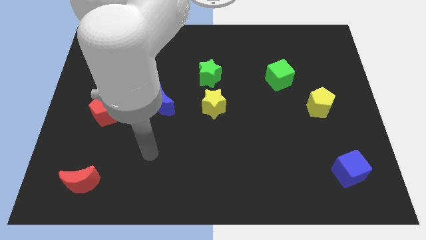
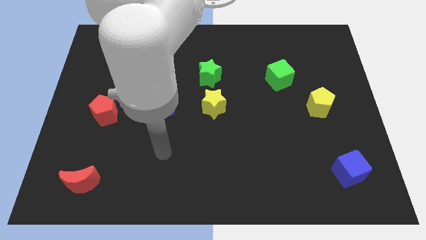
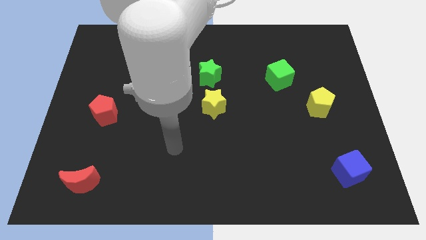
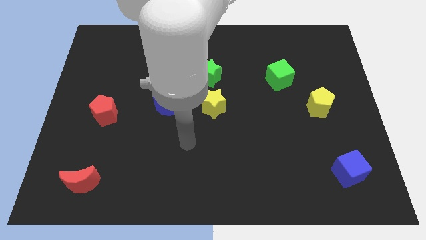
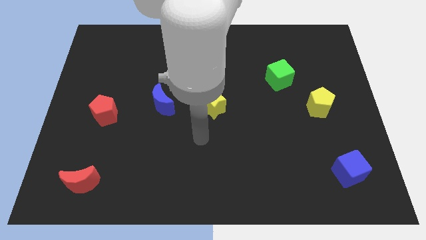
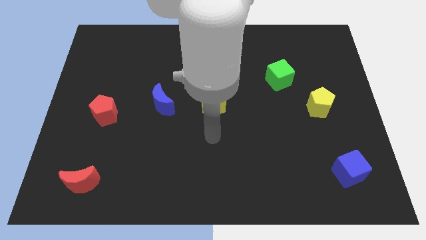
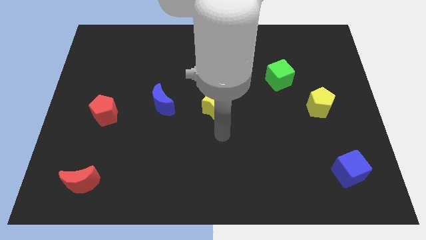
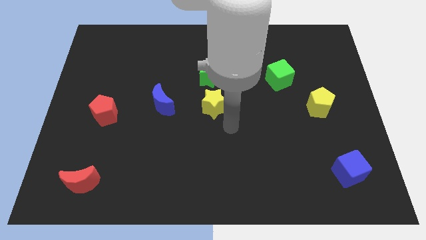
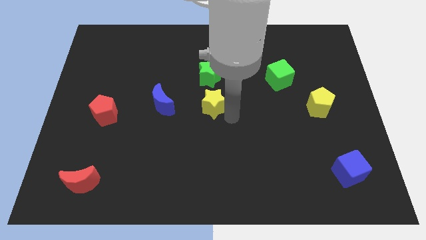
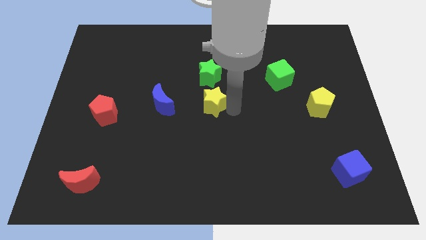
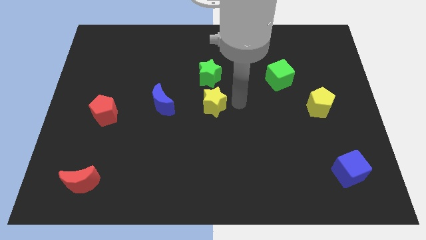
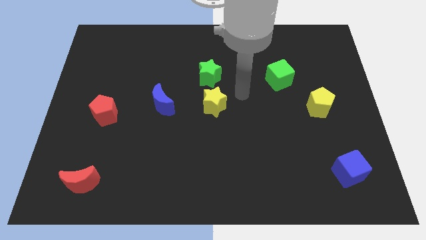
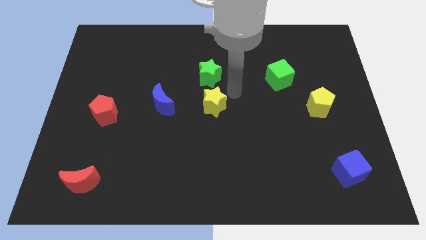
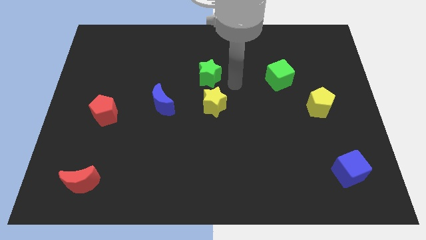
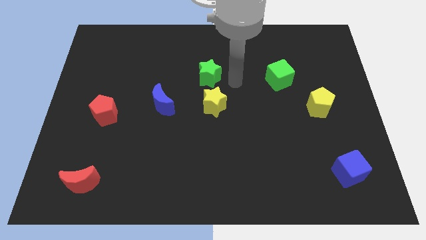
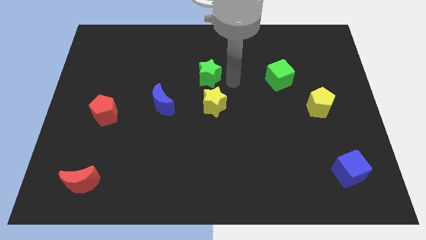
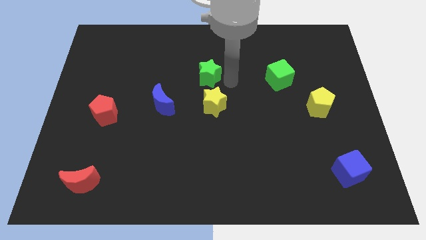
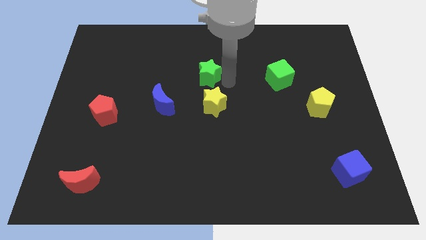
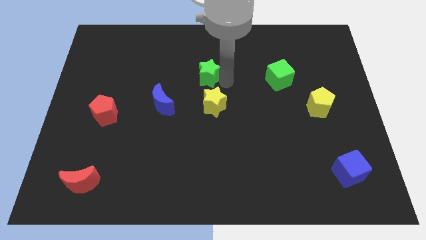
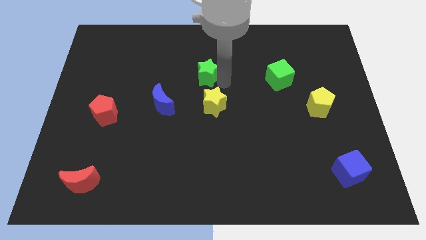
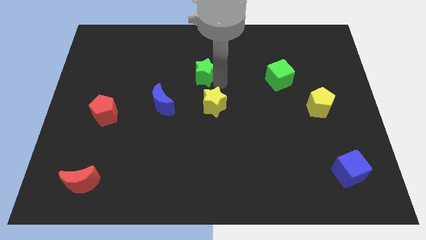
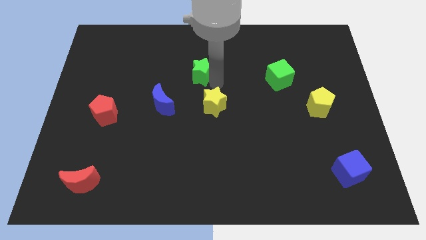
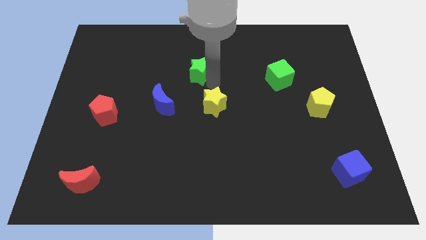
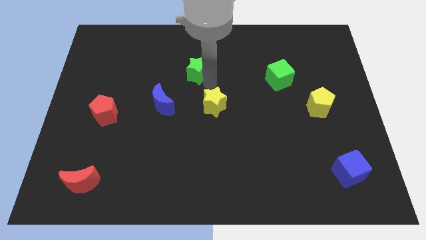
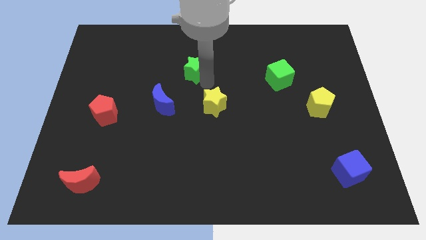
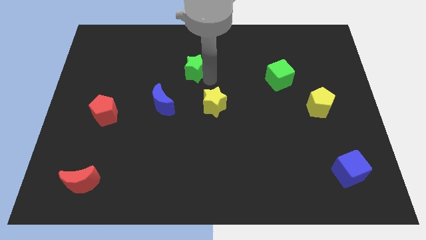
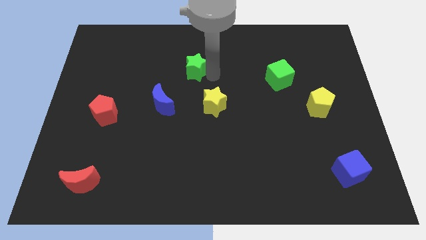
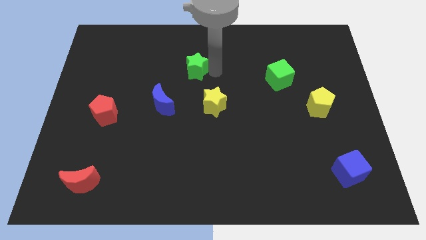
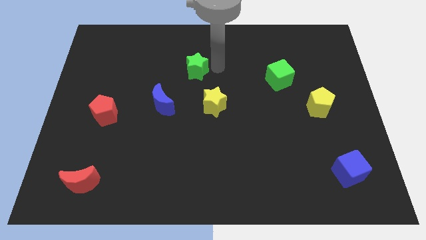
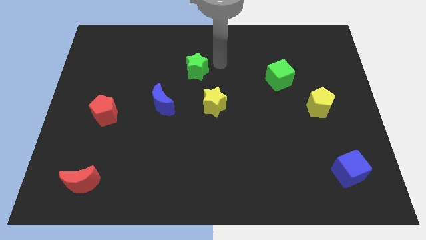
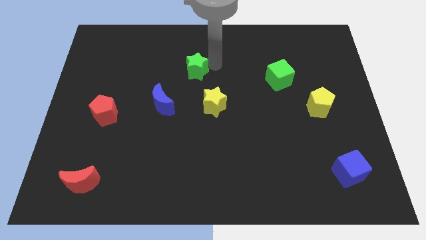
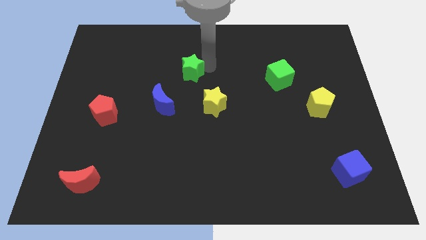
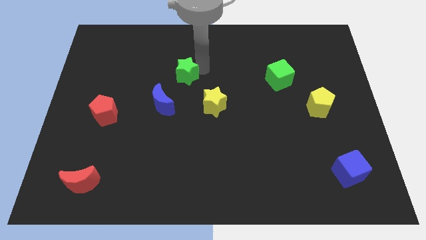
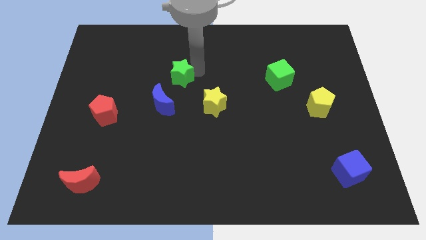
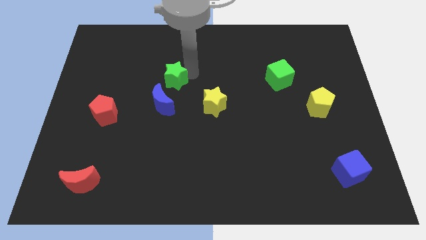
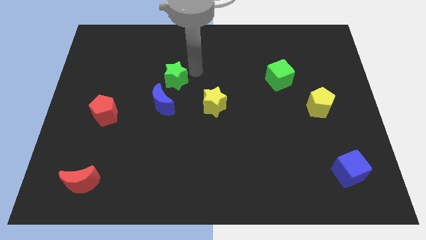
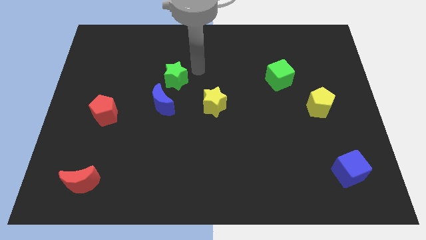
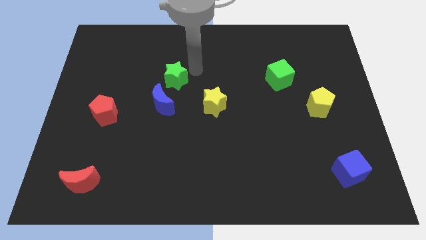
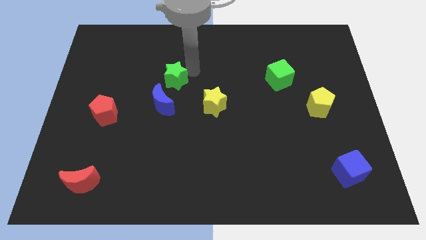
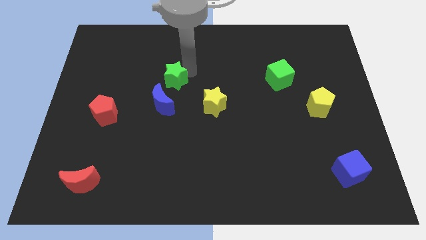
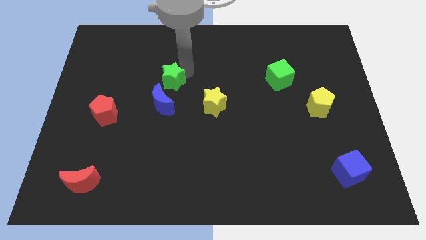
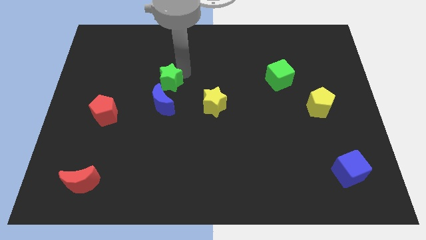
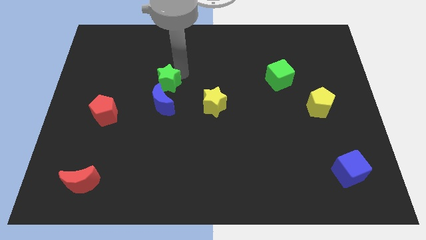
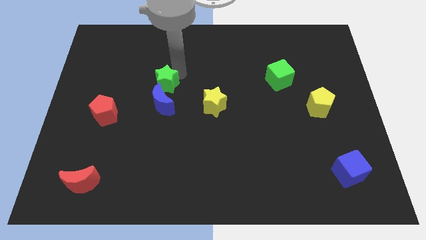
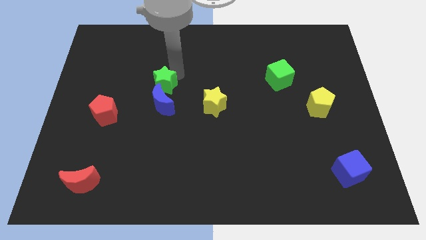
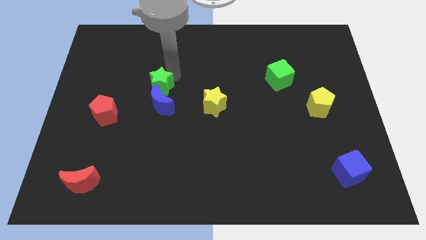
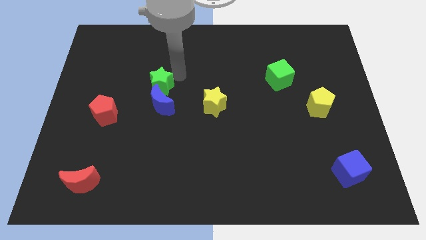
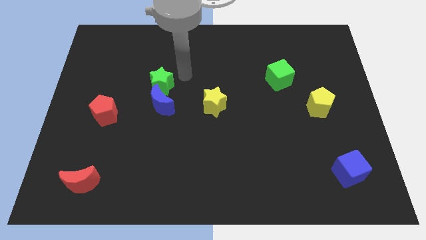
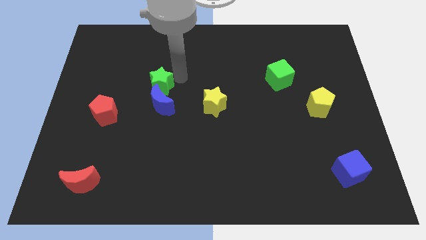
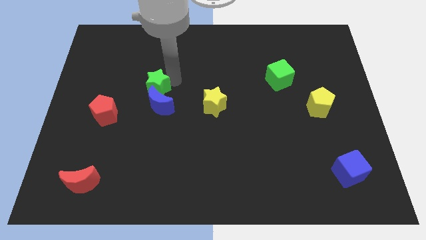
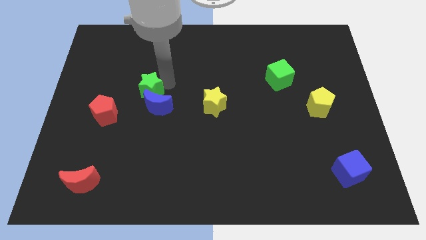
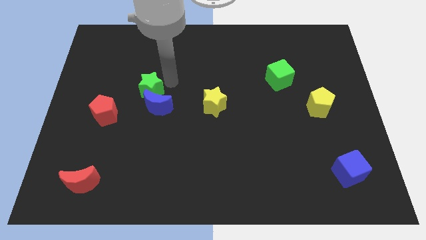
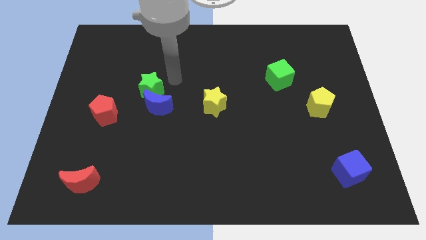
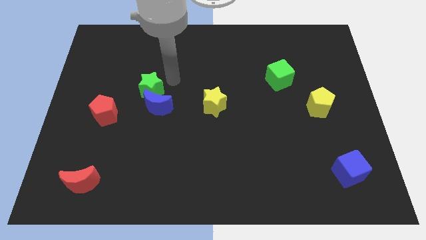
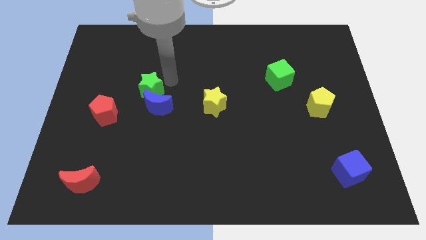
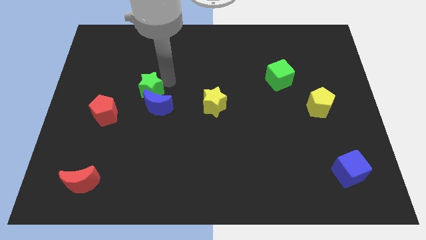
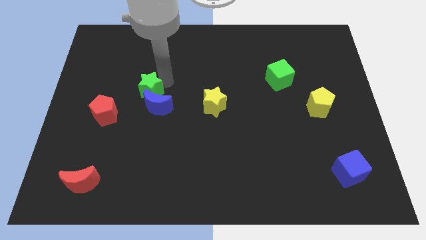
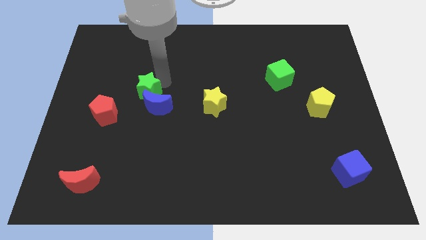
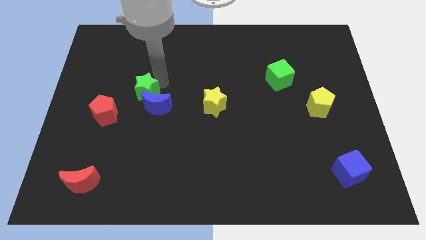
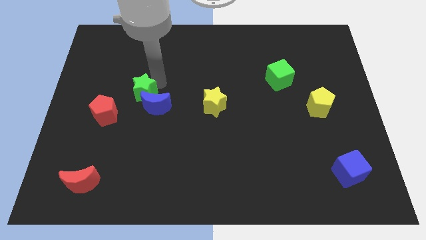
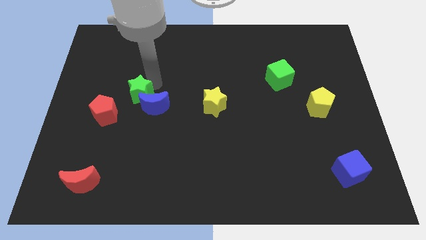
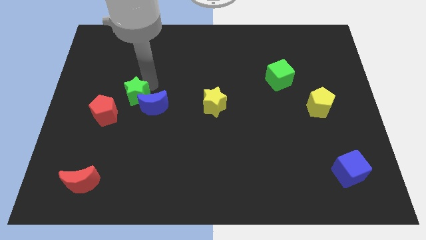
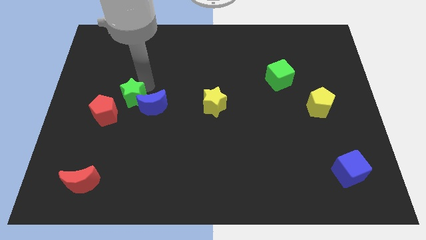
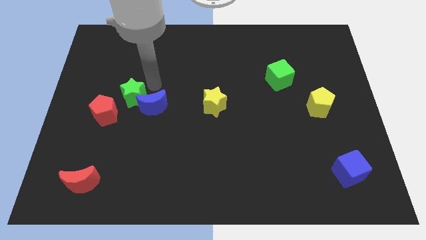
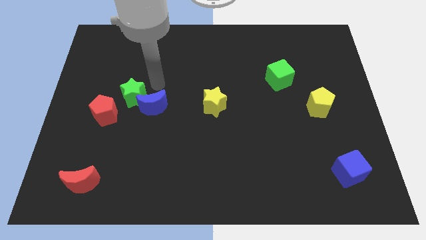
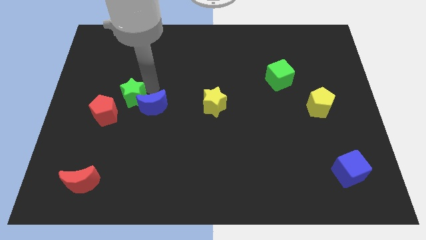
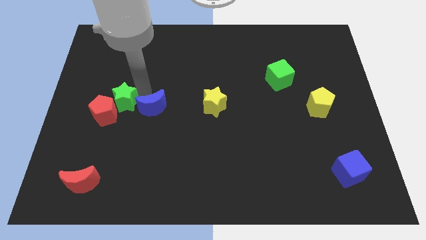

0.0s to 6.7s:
slide the green star next to the red pentagon
